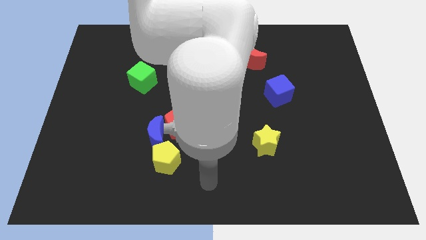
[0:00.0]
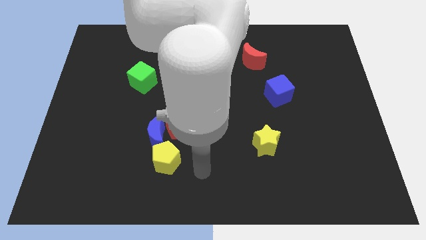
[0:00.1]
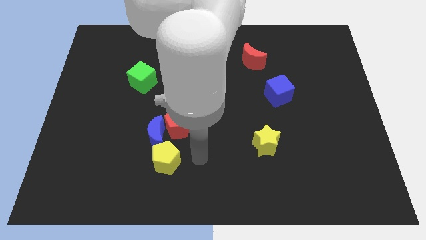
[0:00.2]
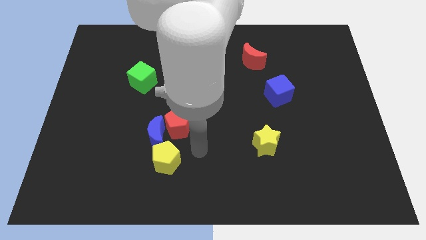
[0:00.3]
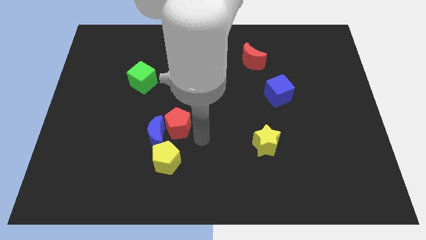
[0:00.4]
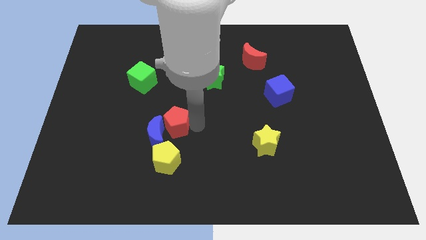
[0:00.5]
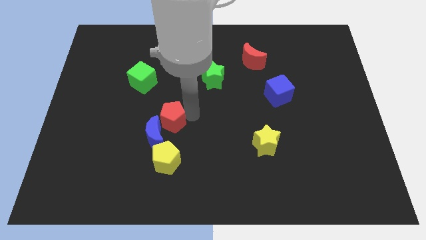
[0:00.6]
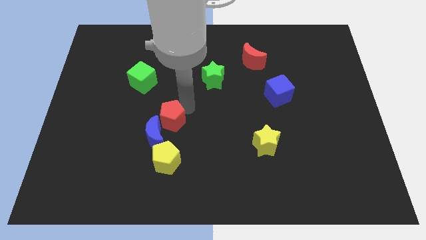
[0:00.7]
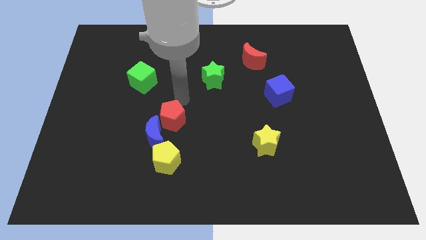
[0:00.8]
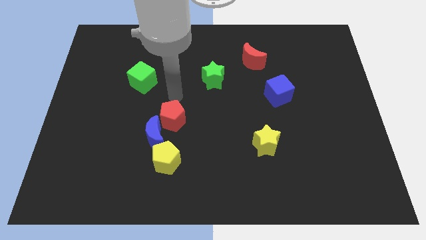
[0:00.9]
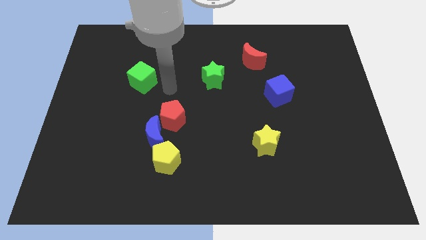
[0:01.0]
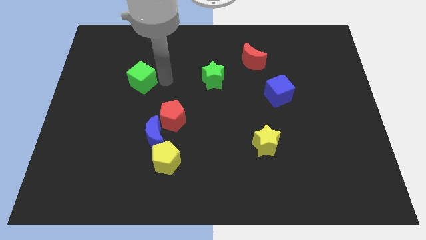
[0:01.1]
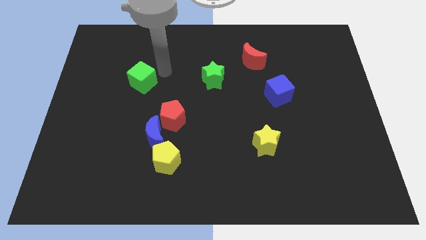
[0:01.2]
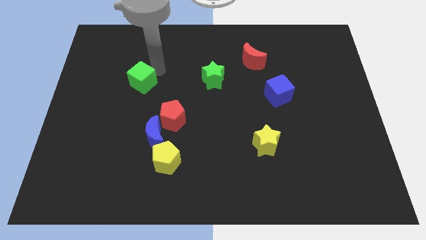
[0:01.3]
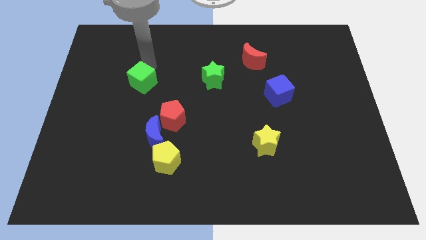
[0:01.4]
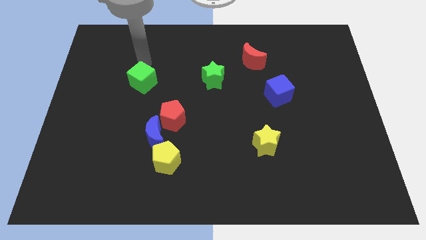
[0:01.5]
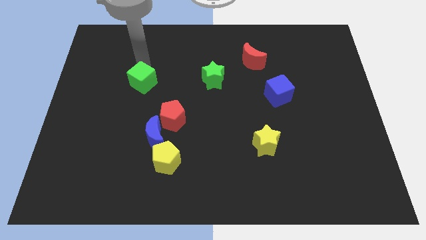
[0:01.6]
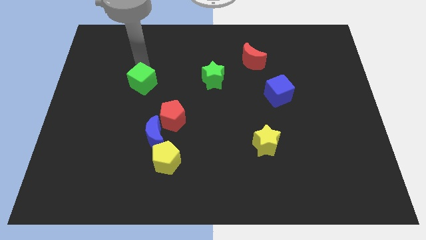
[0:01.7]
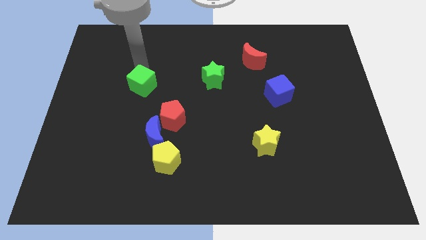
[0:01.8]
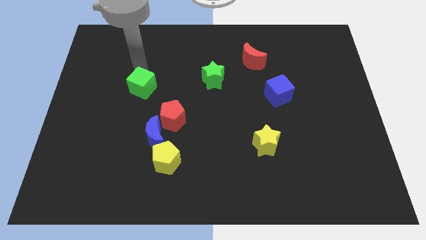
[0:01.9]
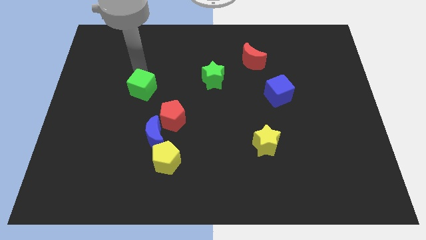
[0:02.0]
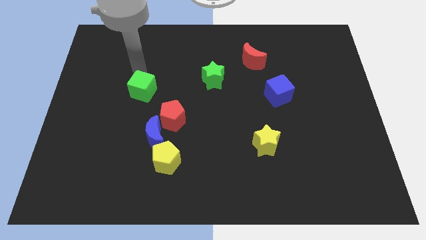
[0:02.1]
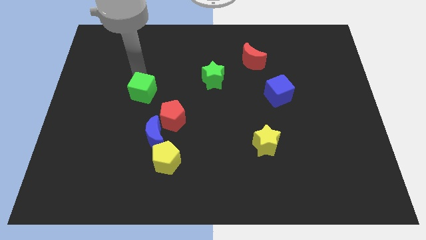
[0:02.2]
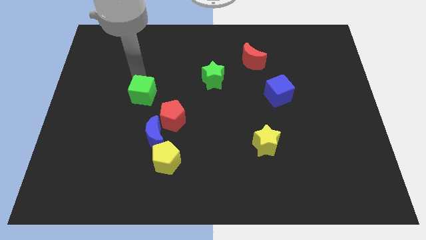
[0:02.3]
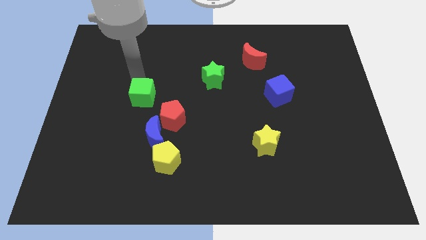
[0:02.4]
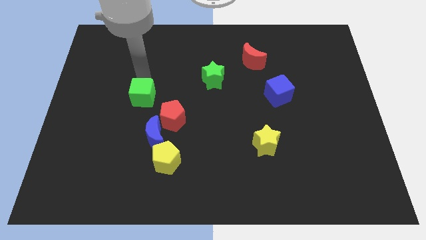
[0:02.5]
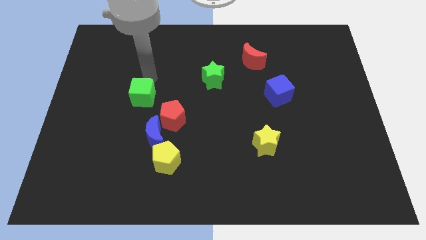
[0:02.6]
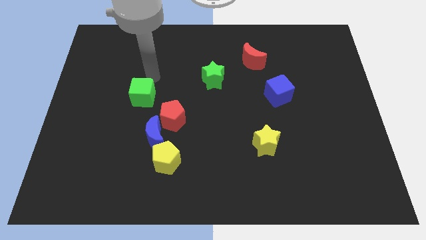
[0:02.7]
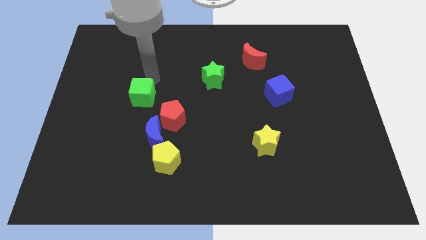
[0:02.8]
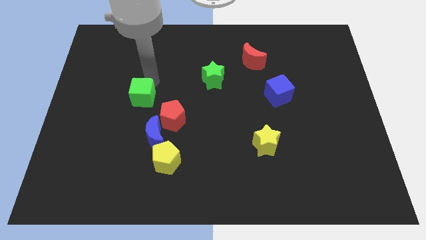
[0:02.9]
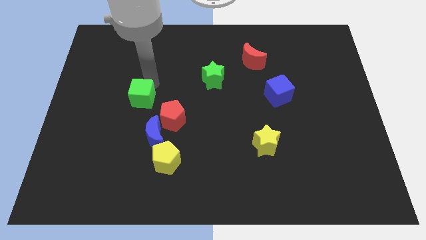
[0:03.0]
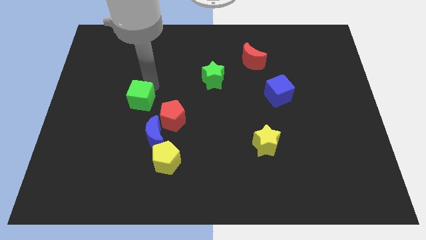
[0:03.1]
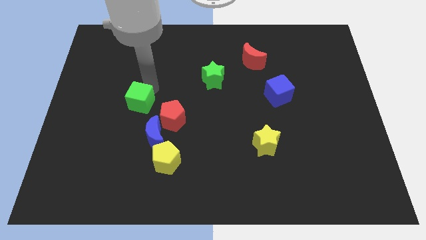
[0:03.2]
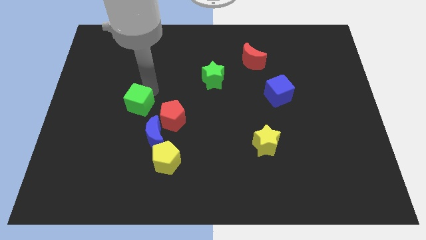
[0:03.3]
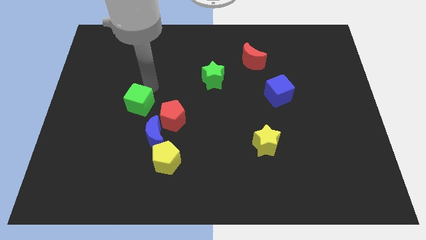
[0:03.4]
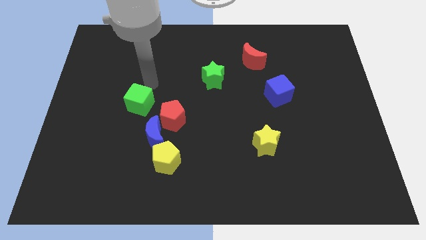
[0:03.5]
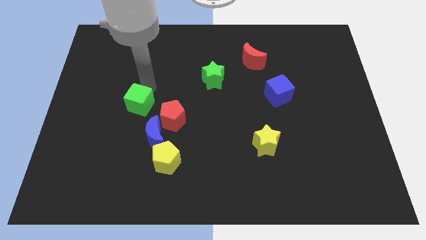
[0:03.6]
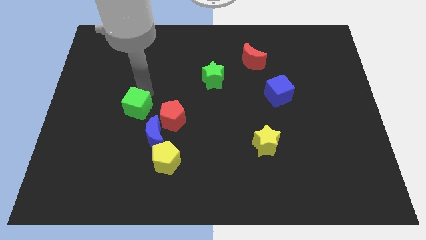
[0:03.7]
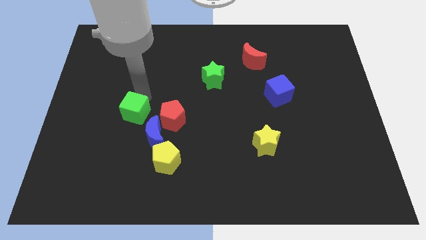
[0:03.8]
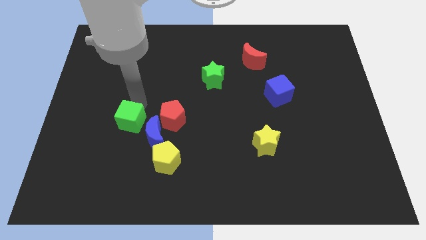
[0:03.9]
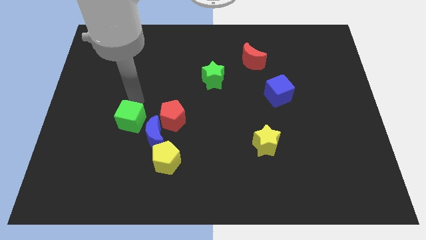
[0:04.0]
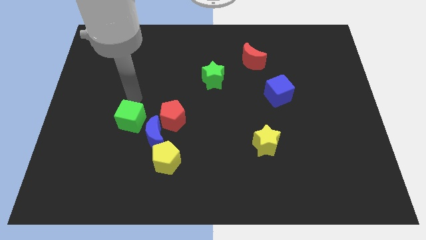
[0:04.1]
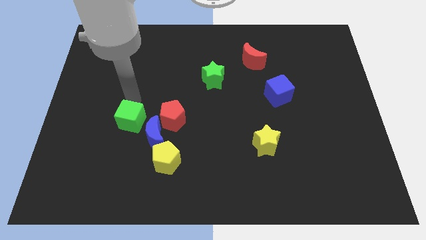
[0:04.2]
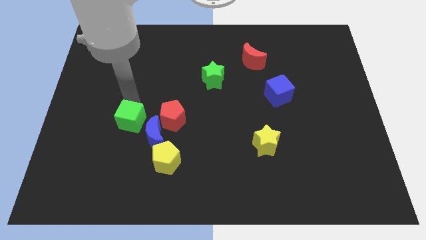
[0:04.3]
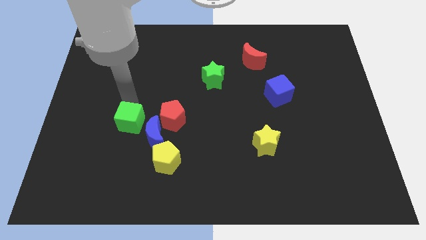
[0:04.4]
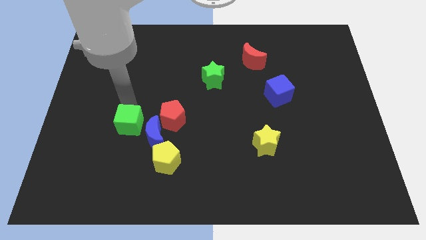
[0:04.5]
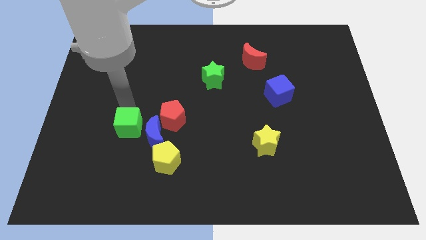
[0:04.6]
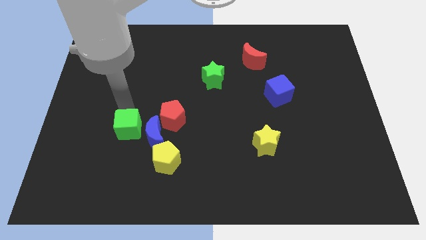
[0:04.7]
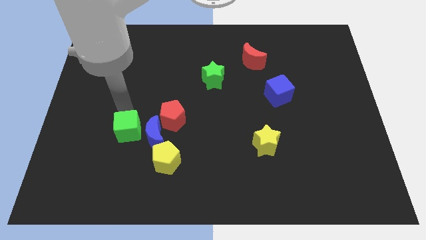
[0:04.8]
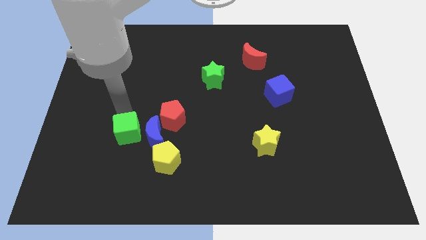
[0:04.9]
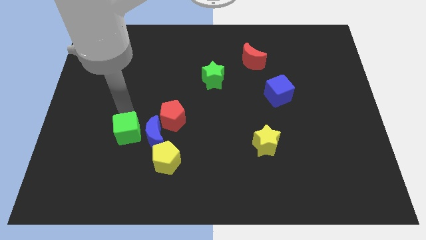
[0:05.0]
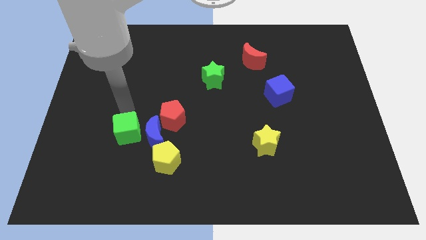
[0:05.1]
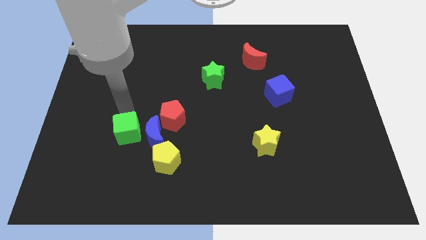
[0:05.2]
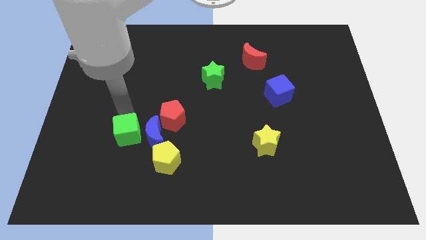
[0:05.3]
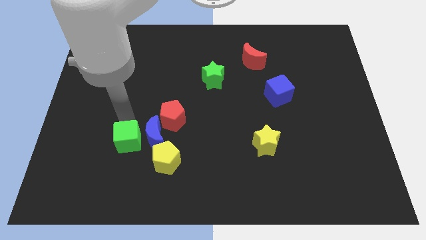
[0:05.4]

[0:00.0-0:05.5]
put the green cube to the bottom left side of the blue moon

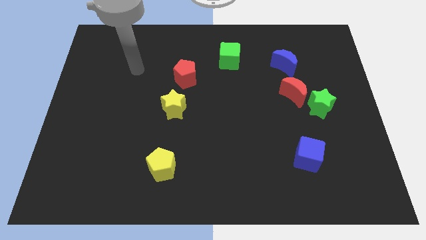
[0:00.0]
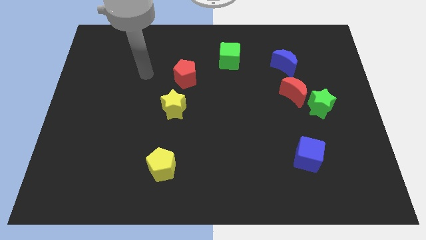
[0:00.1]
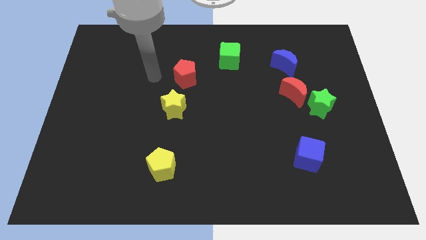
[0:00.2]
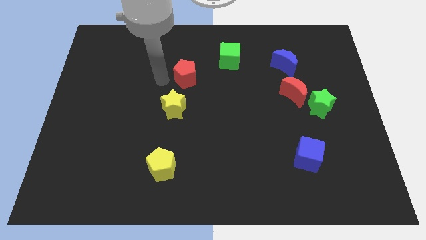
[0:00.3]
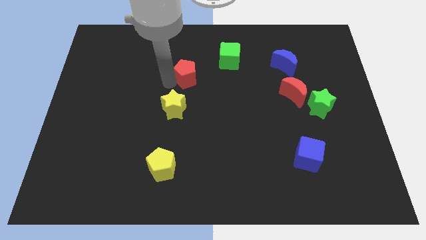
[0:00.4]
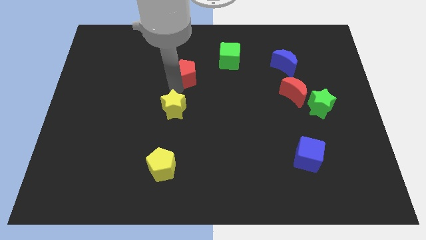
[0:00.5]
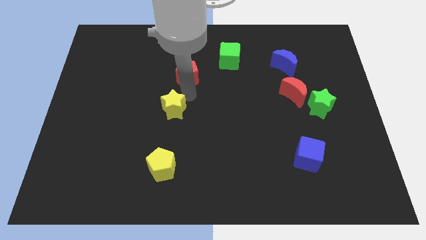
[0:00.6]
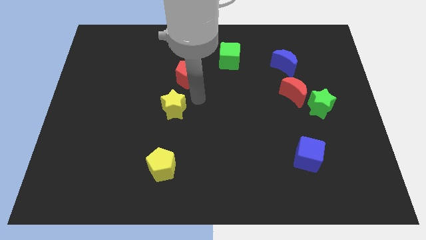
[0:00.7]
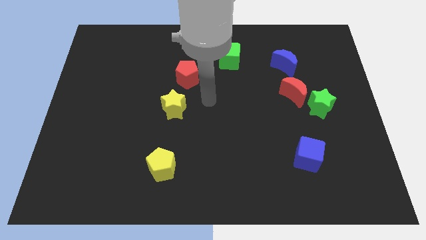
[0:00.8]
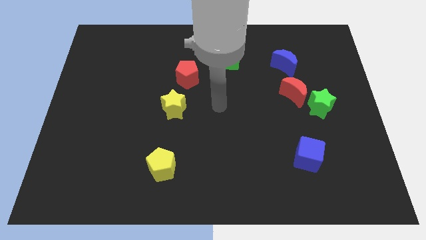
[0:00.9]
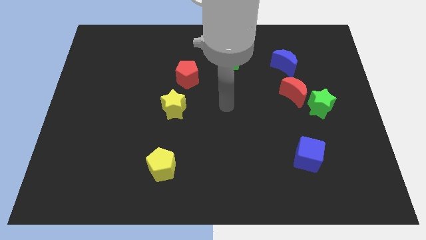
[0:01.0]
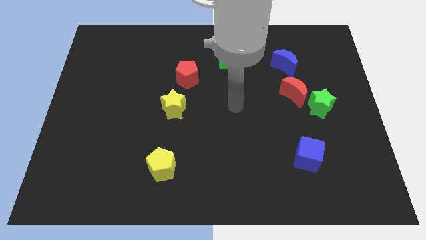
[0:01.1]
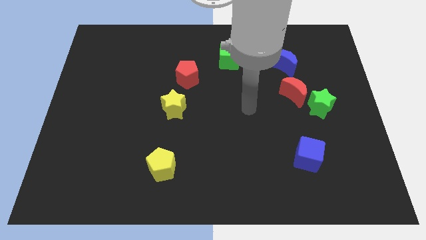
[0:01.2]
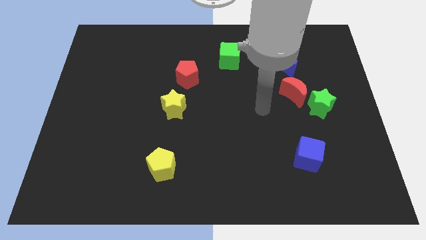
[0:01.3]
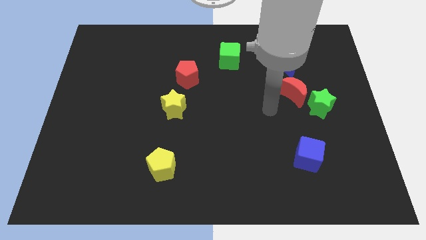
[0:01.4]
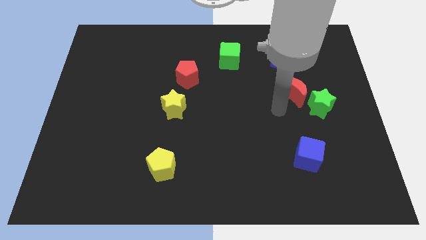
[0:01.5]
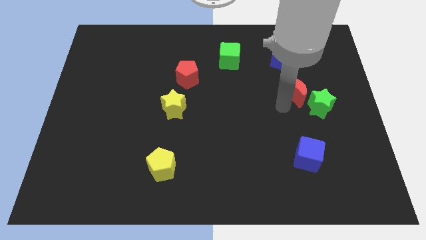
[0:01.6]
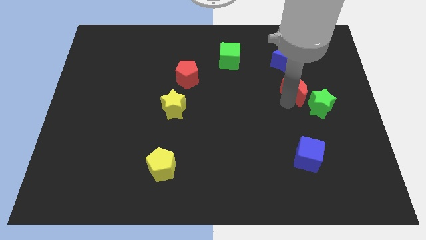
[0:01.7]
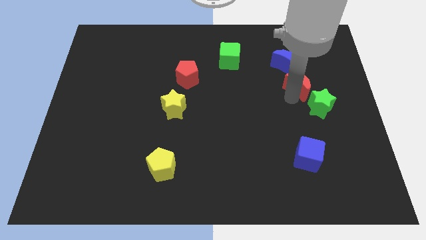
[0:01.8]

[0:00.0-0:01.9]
put the red moon to the bottom right side of the blue moon
